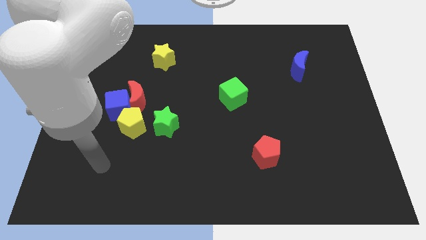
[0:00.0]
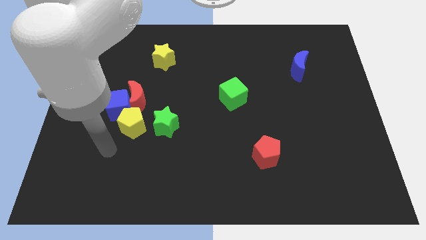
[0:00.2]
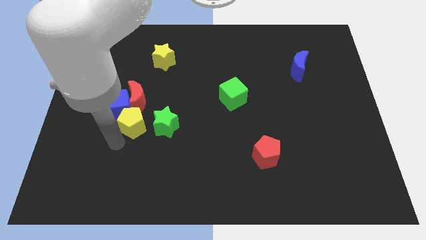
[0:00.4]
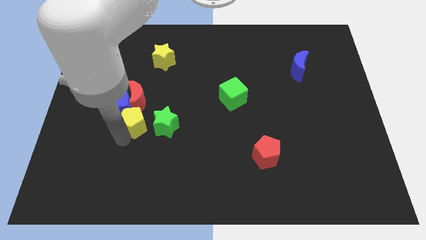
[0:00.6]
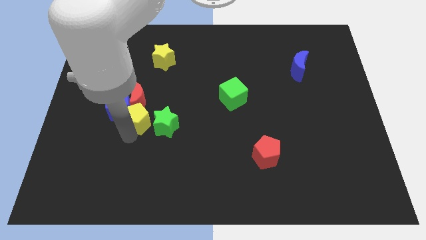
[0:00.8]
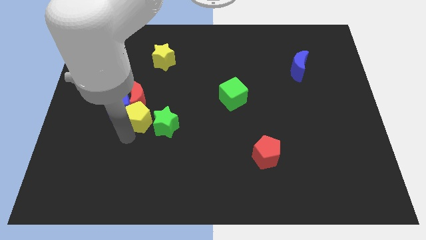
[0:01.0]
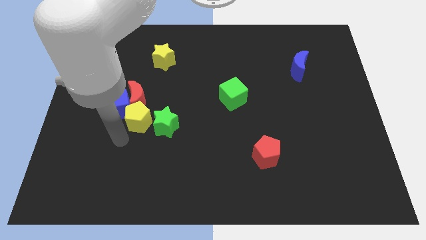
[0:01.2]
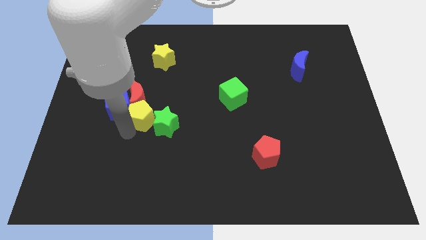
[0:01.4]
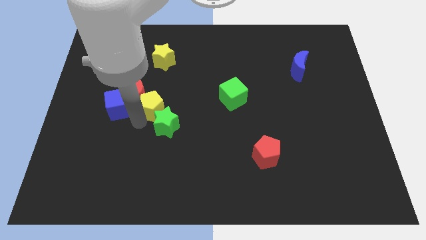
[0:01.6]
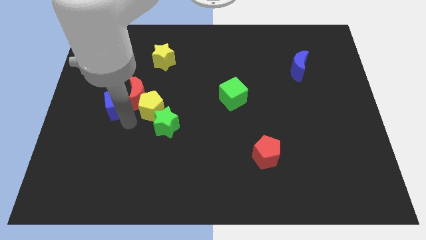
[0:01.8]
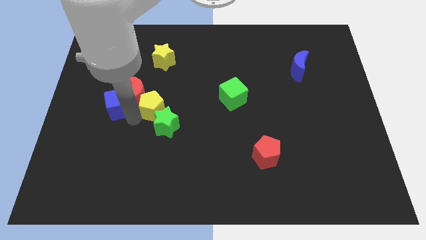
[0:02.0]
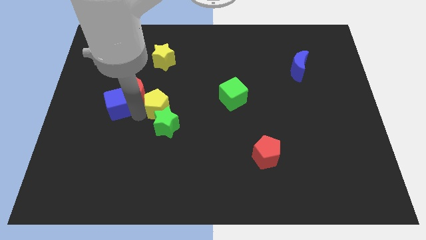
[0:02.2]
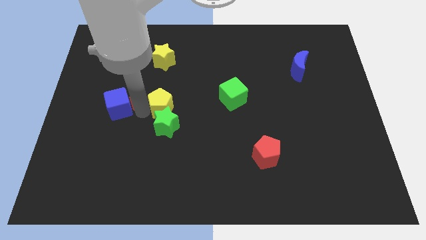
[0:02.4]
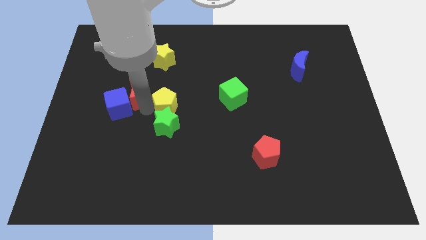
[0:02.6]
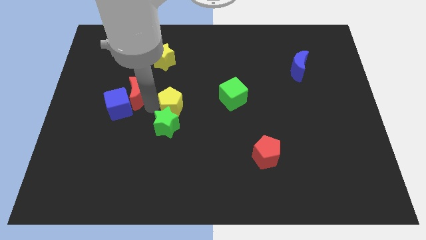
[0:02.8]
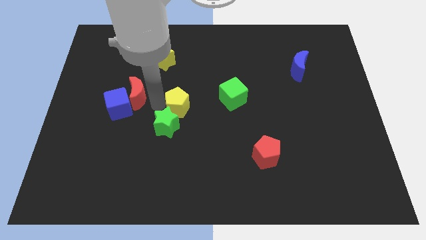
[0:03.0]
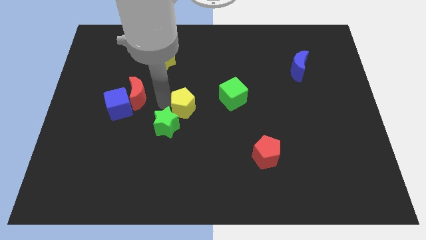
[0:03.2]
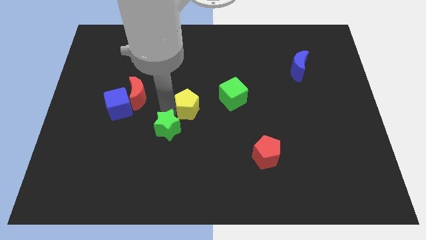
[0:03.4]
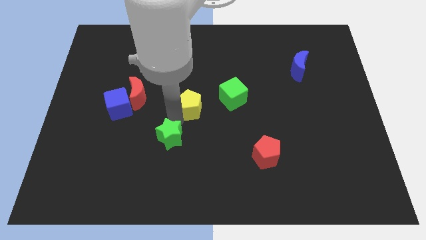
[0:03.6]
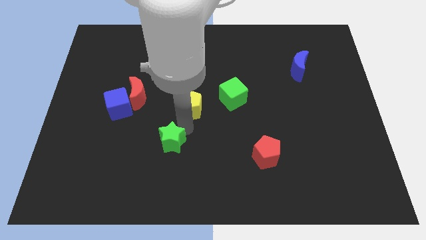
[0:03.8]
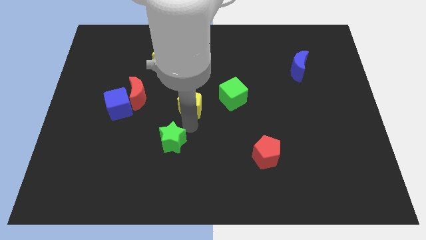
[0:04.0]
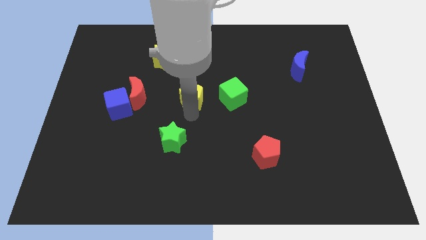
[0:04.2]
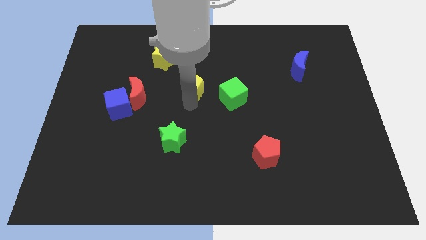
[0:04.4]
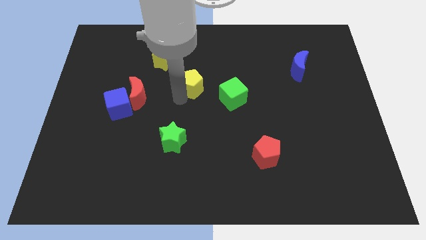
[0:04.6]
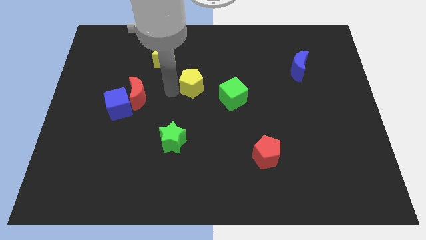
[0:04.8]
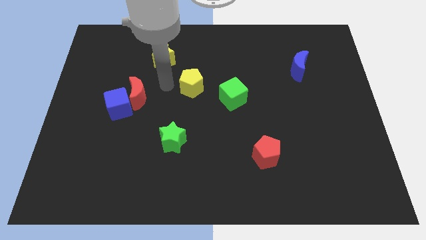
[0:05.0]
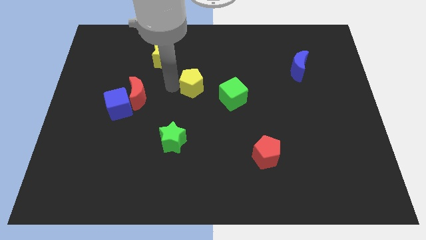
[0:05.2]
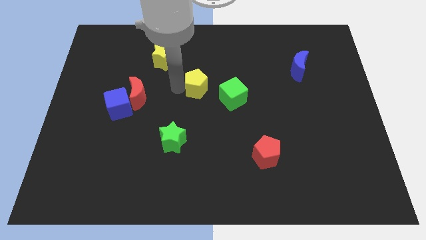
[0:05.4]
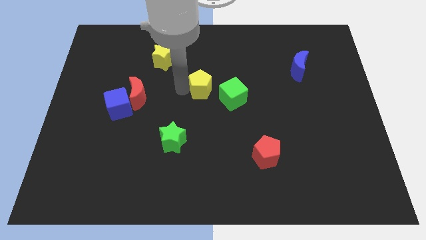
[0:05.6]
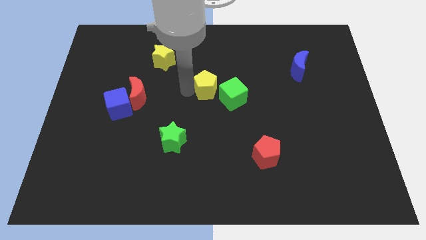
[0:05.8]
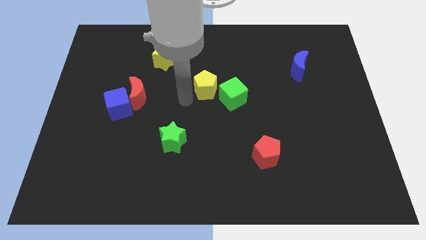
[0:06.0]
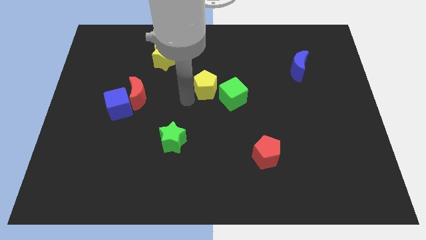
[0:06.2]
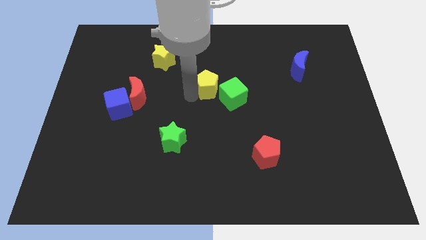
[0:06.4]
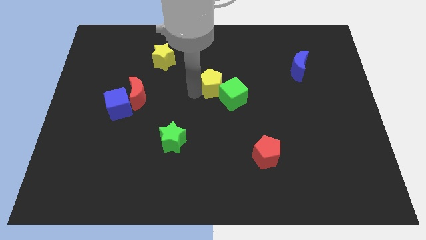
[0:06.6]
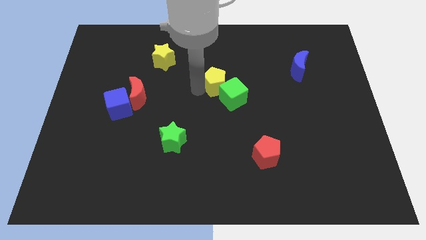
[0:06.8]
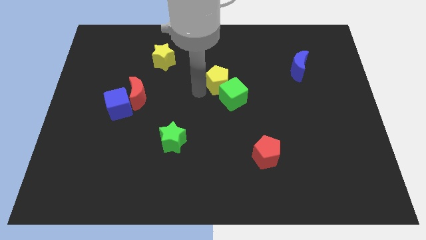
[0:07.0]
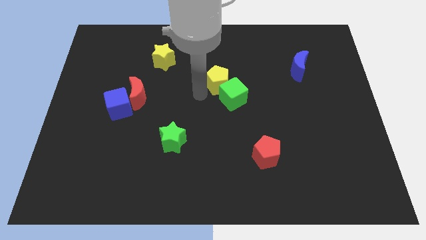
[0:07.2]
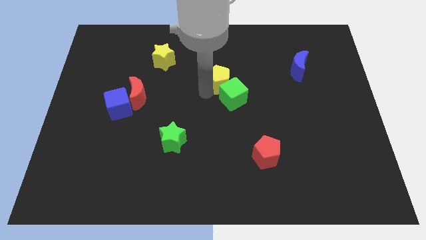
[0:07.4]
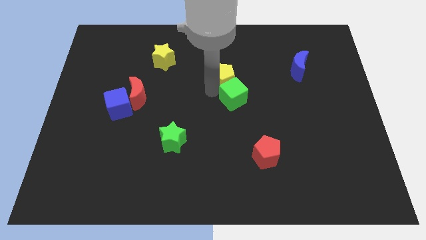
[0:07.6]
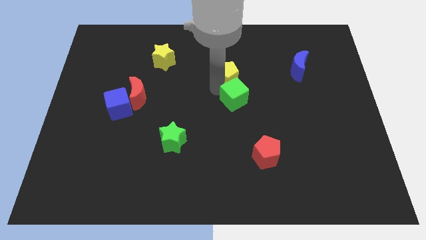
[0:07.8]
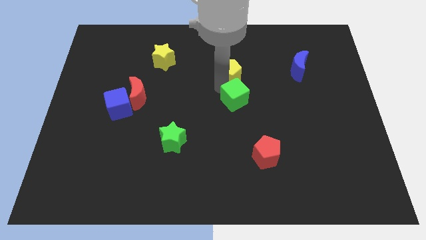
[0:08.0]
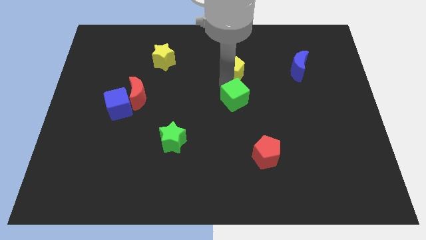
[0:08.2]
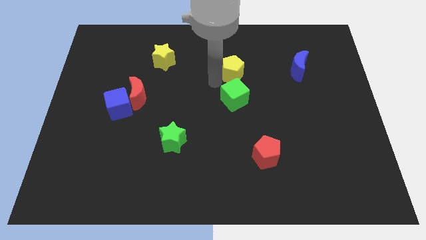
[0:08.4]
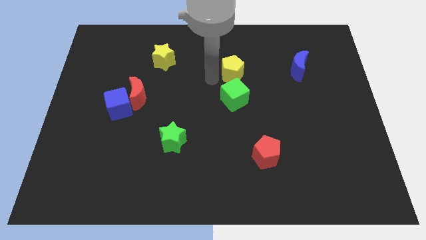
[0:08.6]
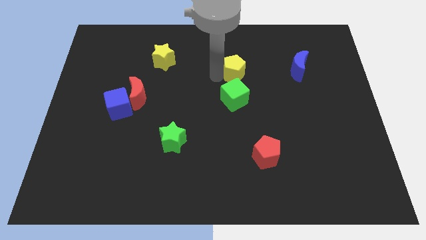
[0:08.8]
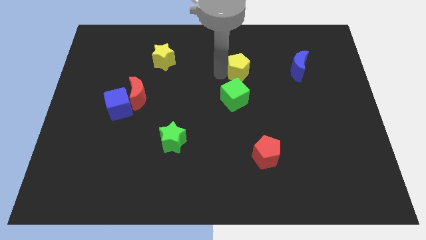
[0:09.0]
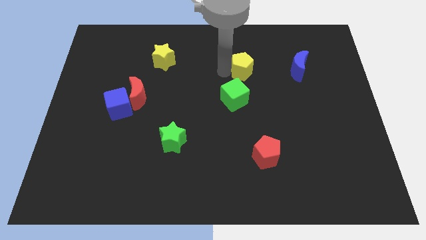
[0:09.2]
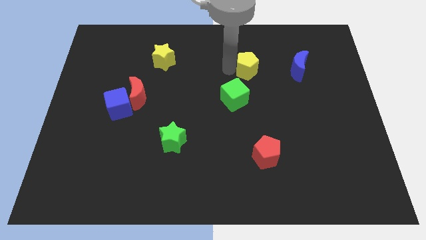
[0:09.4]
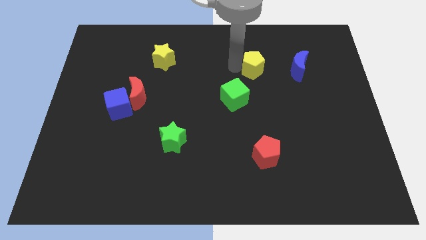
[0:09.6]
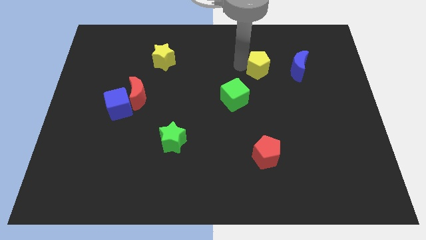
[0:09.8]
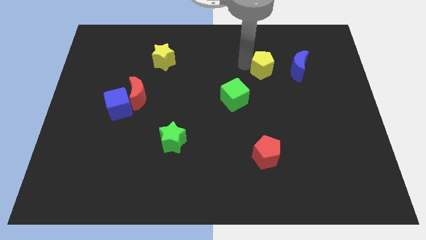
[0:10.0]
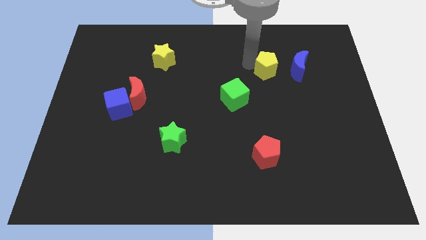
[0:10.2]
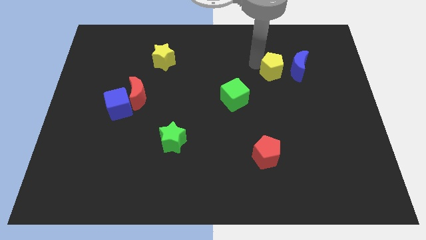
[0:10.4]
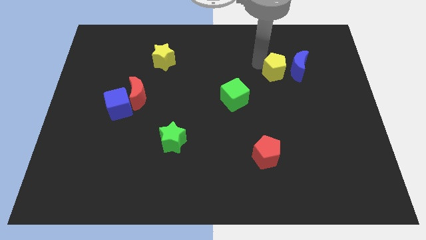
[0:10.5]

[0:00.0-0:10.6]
put the yellow pentagon towards the blue moon

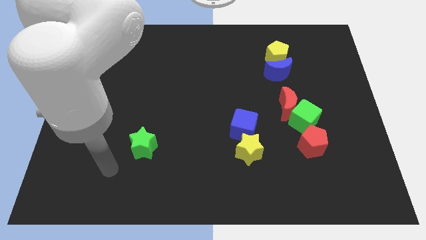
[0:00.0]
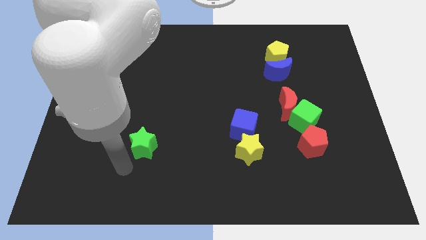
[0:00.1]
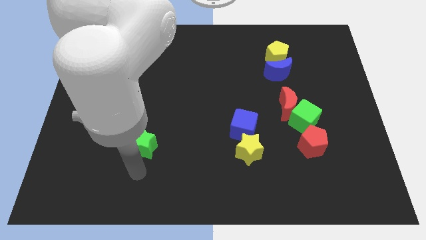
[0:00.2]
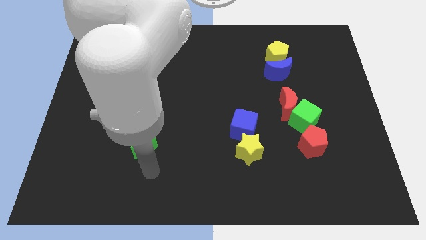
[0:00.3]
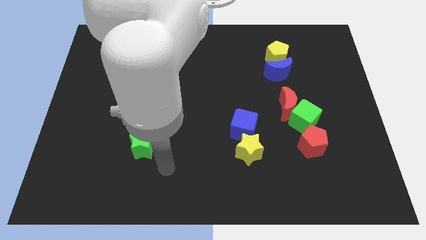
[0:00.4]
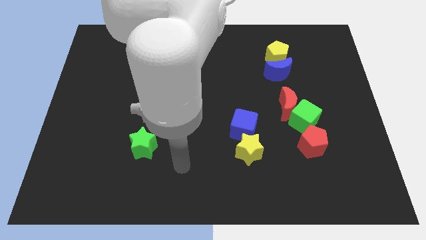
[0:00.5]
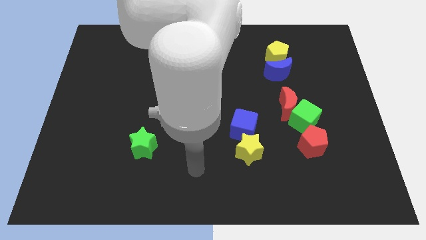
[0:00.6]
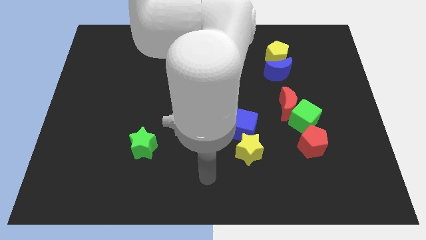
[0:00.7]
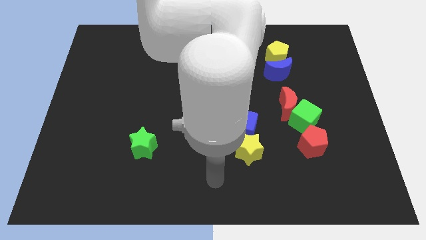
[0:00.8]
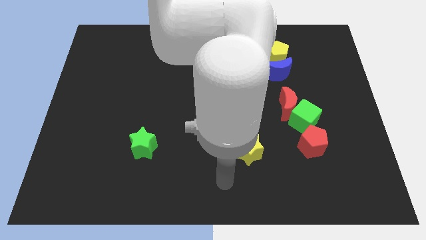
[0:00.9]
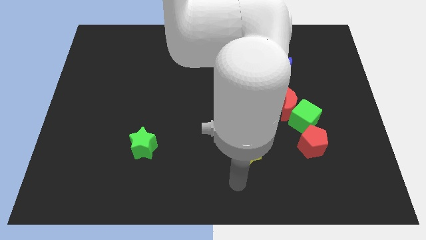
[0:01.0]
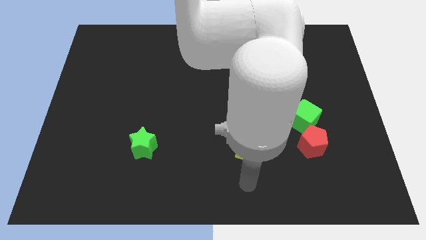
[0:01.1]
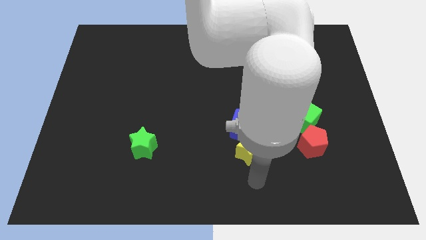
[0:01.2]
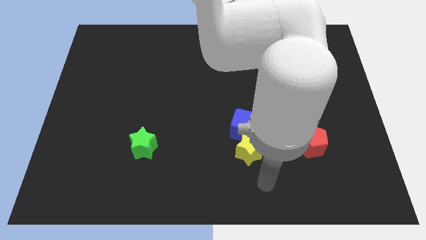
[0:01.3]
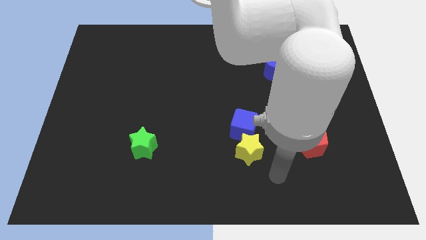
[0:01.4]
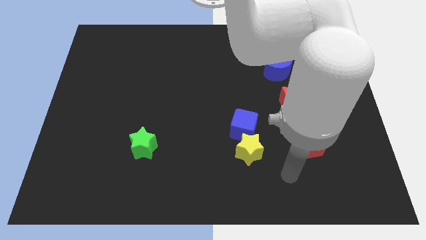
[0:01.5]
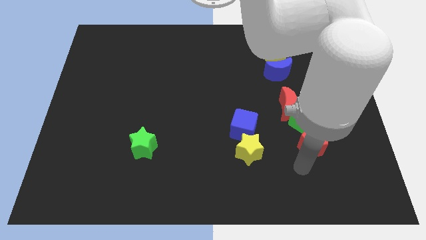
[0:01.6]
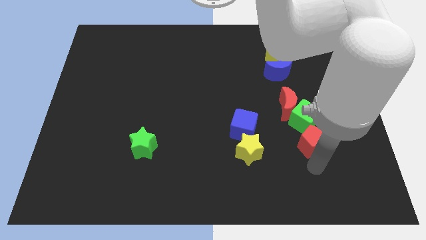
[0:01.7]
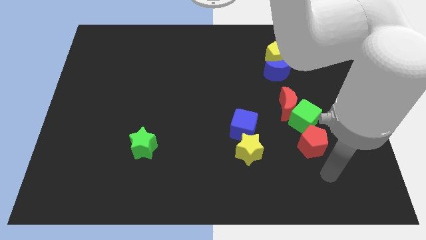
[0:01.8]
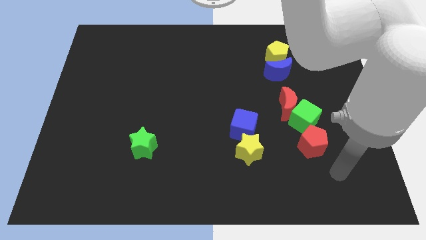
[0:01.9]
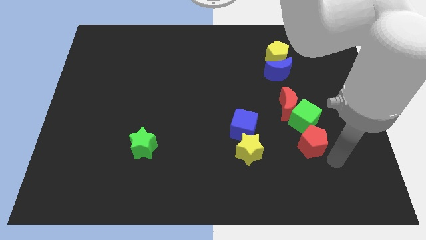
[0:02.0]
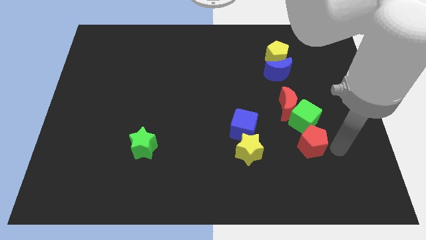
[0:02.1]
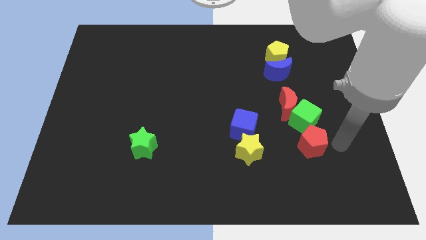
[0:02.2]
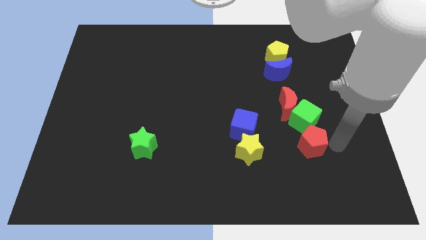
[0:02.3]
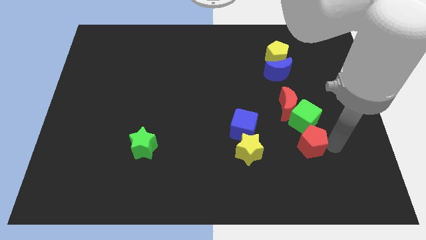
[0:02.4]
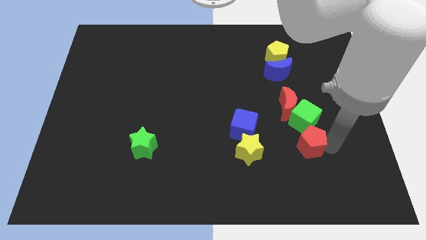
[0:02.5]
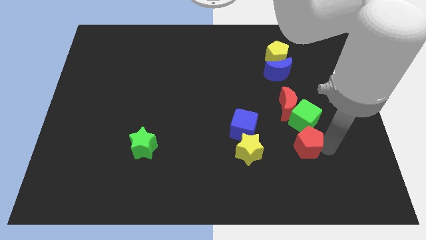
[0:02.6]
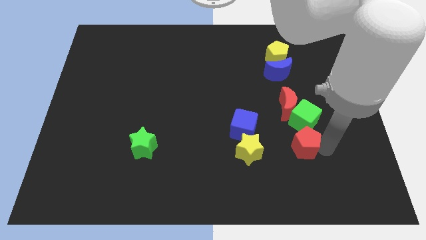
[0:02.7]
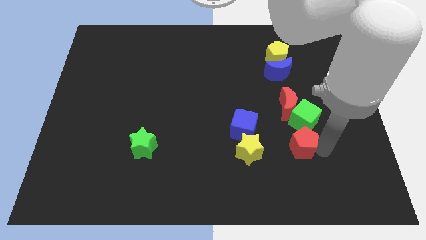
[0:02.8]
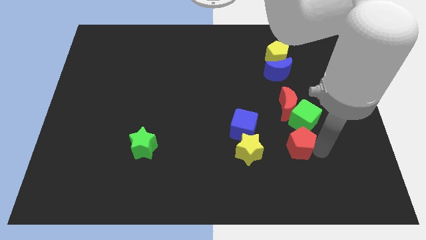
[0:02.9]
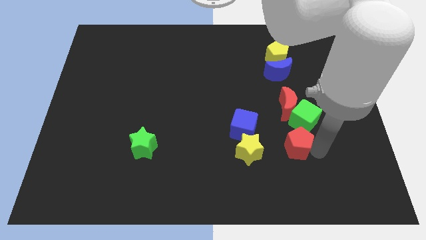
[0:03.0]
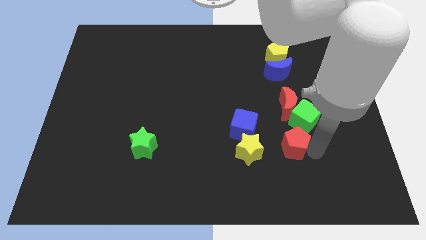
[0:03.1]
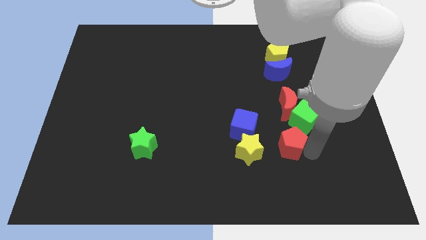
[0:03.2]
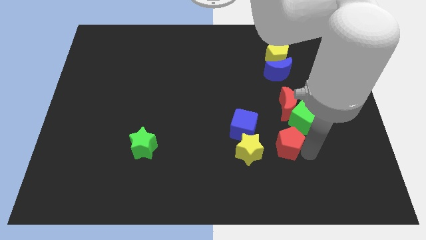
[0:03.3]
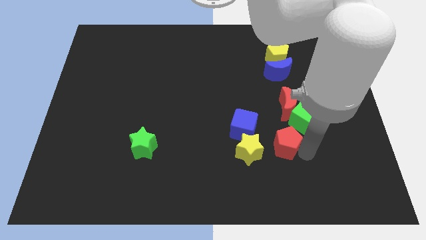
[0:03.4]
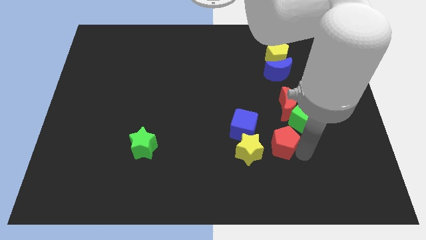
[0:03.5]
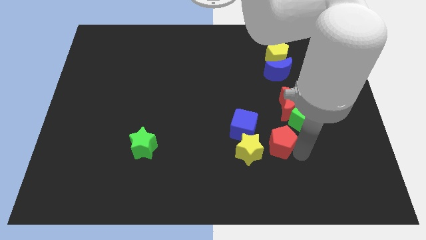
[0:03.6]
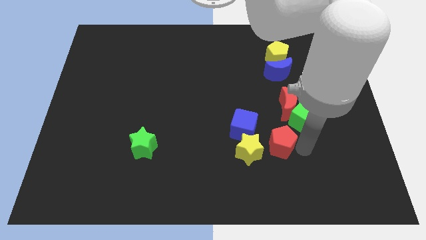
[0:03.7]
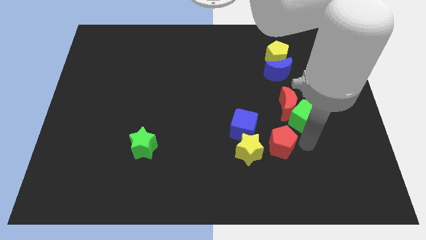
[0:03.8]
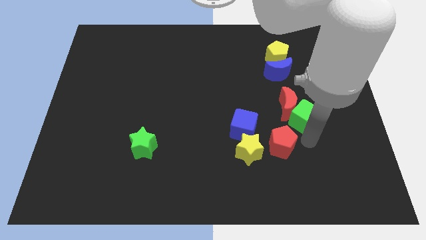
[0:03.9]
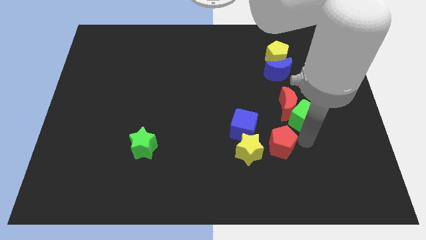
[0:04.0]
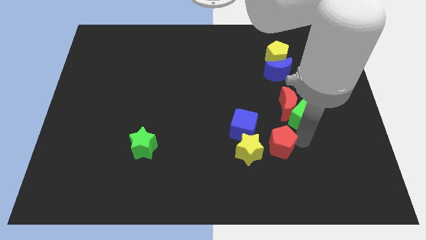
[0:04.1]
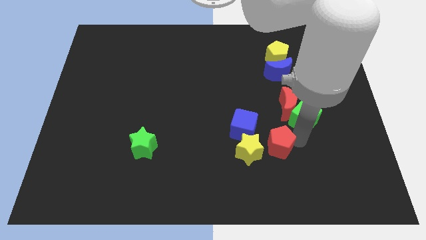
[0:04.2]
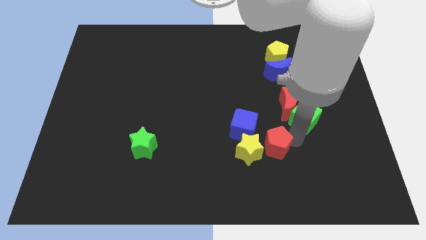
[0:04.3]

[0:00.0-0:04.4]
push the red pentagon next to the yellow star
